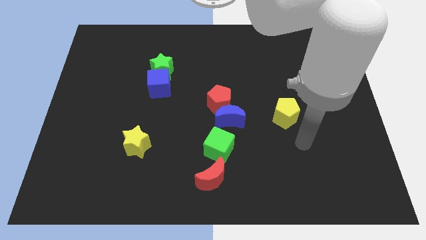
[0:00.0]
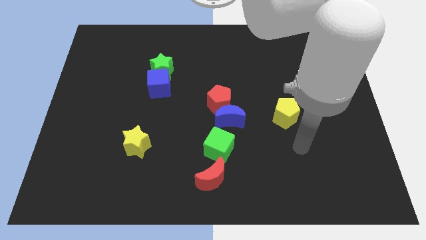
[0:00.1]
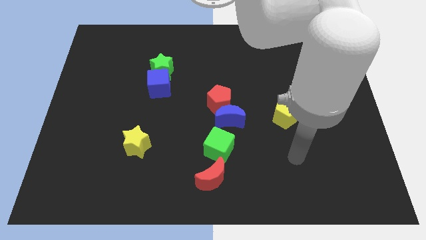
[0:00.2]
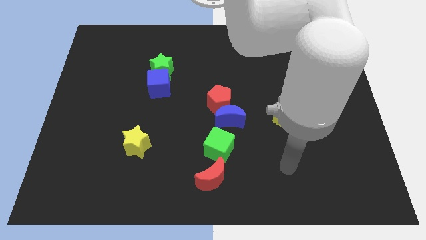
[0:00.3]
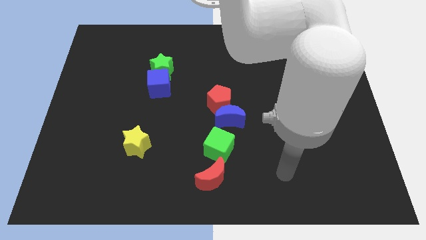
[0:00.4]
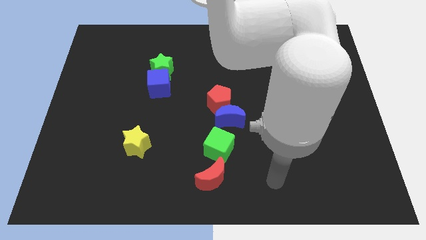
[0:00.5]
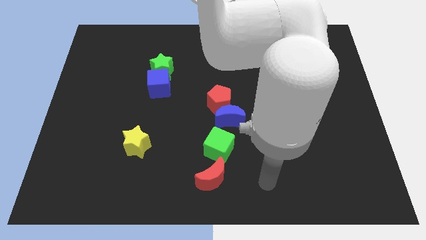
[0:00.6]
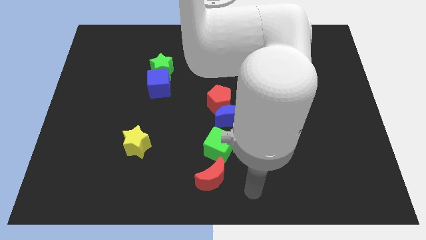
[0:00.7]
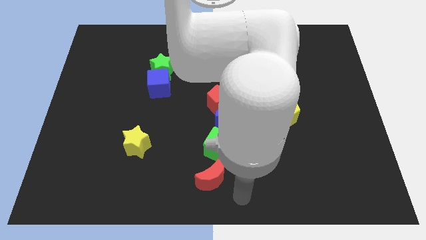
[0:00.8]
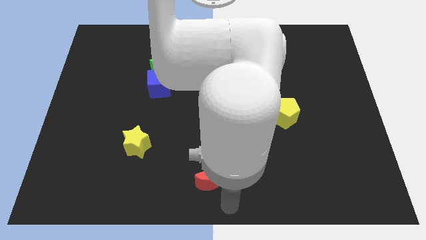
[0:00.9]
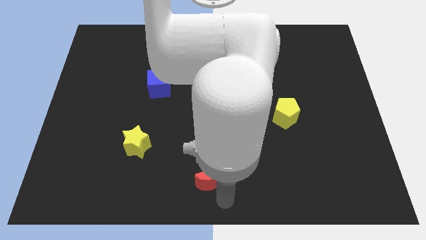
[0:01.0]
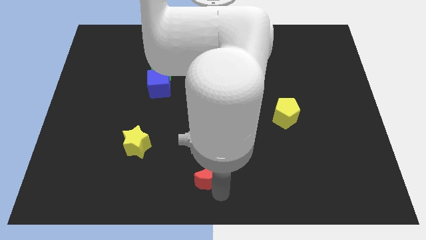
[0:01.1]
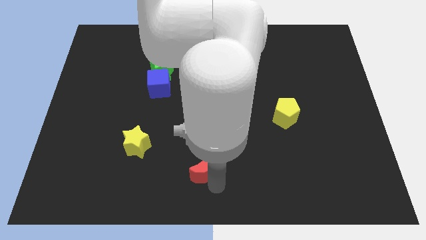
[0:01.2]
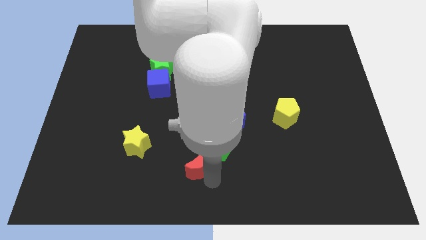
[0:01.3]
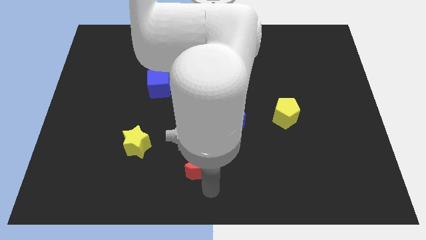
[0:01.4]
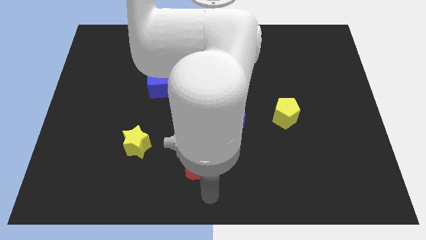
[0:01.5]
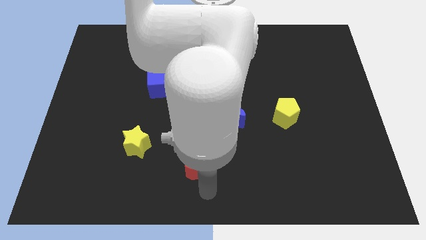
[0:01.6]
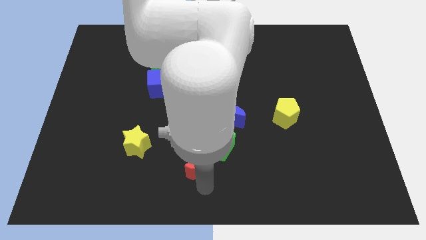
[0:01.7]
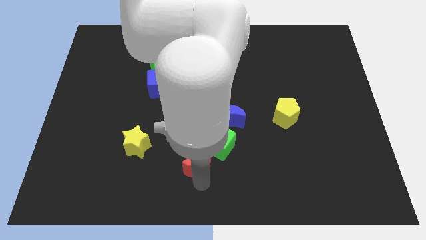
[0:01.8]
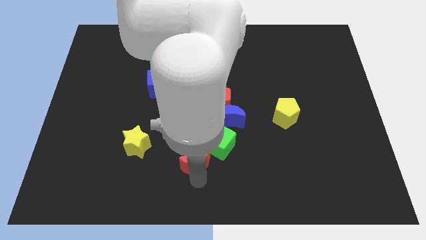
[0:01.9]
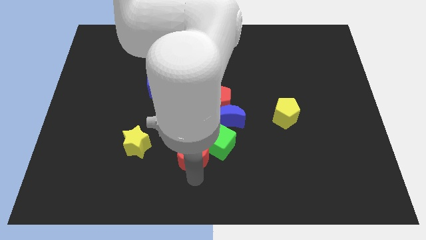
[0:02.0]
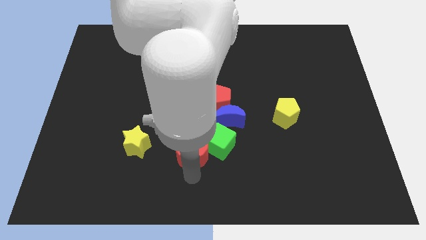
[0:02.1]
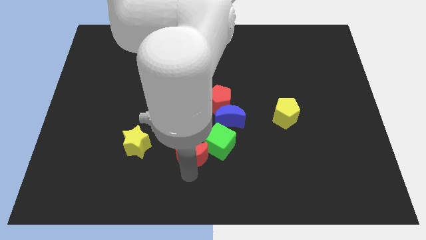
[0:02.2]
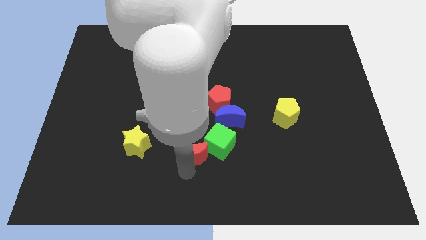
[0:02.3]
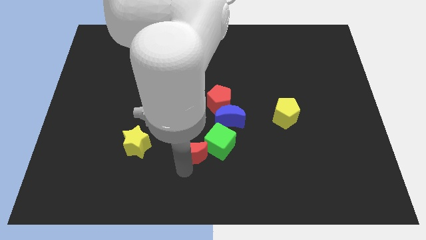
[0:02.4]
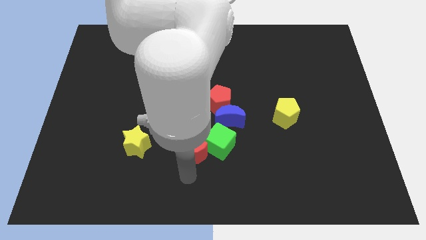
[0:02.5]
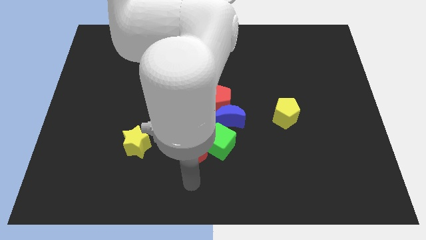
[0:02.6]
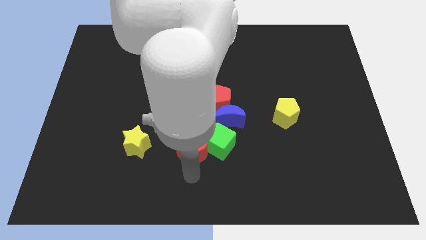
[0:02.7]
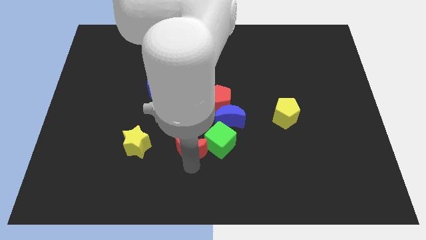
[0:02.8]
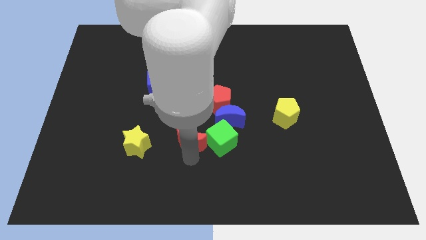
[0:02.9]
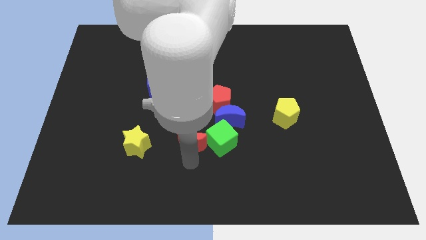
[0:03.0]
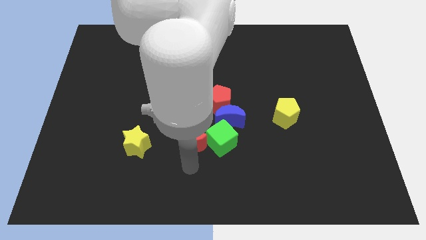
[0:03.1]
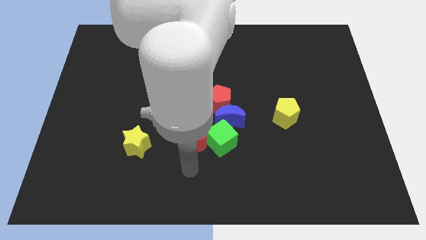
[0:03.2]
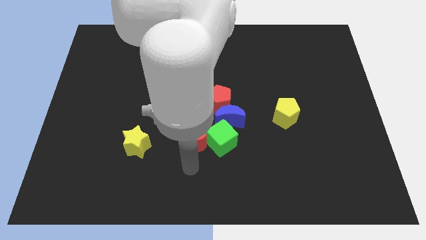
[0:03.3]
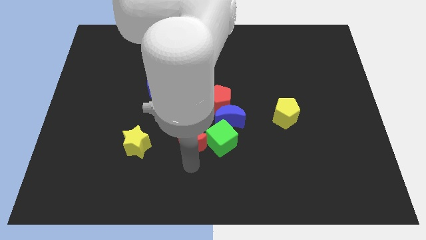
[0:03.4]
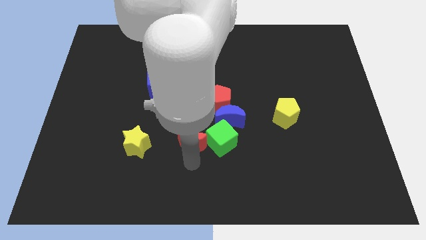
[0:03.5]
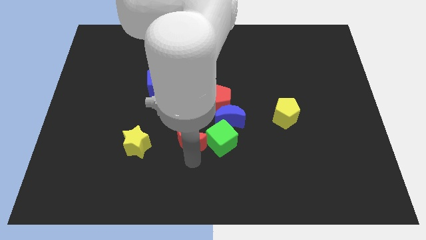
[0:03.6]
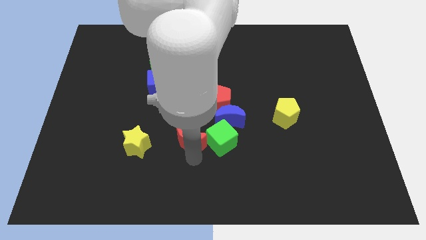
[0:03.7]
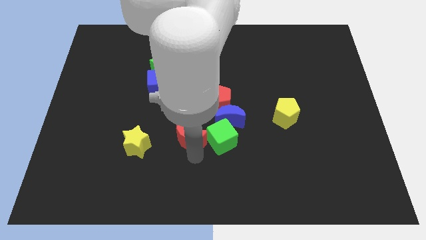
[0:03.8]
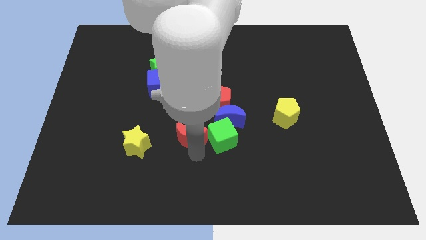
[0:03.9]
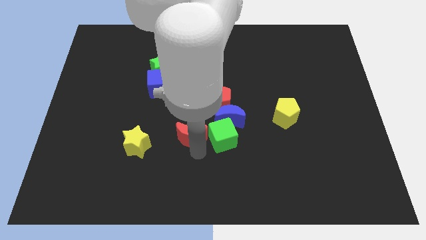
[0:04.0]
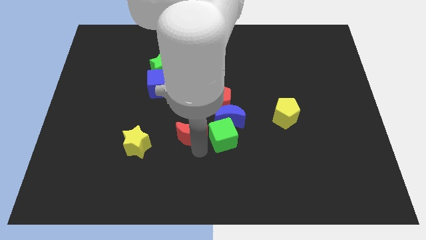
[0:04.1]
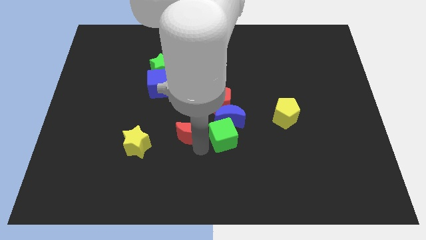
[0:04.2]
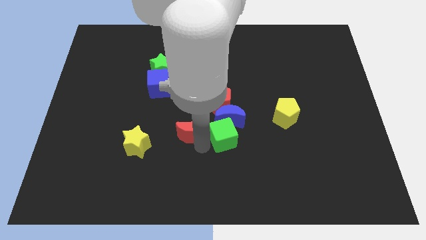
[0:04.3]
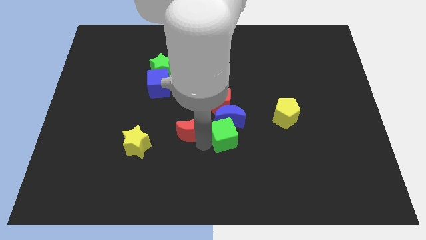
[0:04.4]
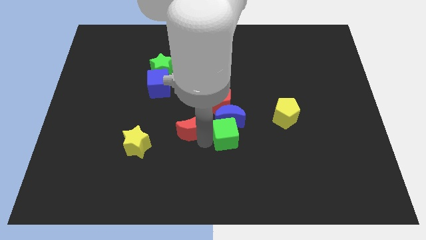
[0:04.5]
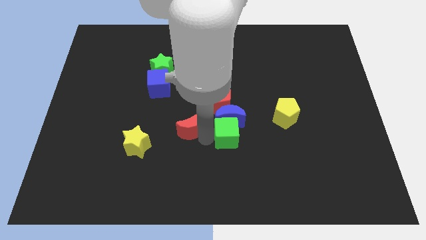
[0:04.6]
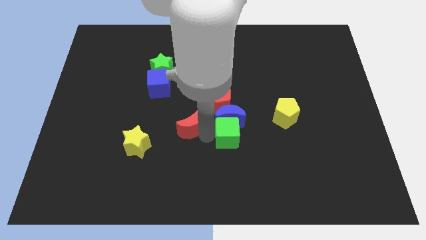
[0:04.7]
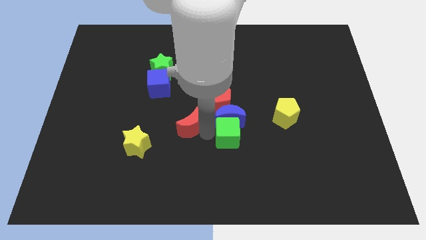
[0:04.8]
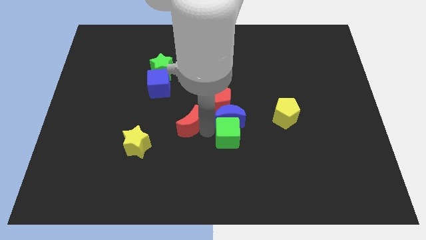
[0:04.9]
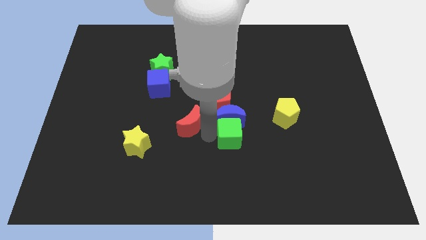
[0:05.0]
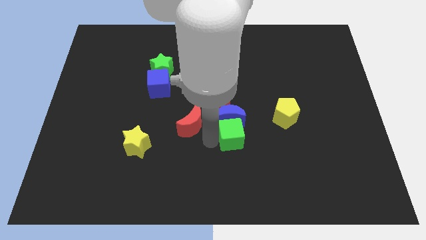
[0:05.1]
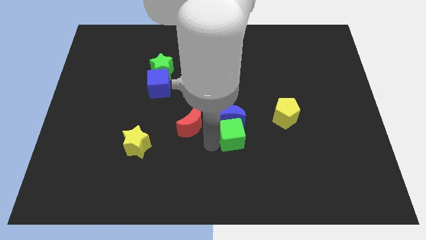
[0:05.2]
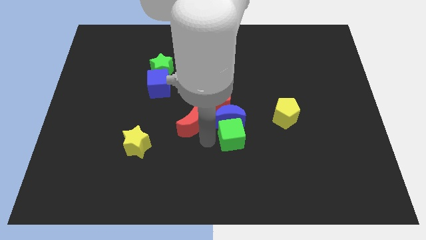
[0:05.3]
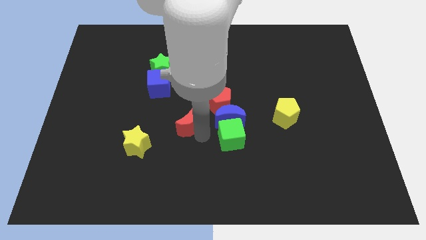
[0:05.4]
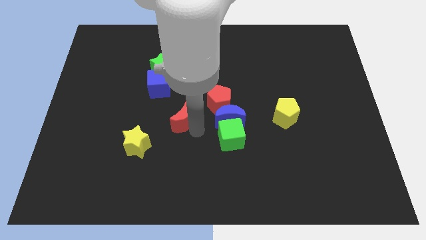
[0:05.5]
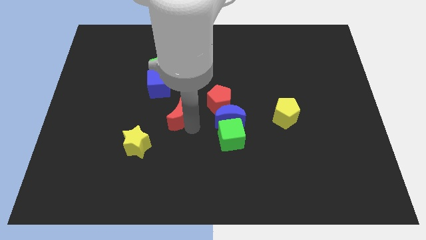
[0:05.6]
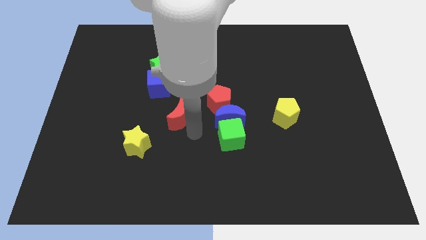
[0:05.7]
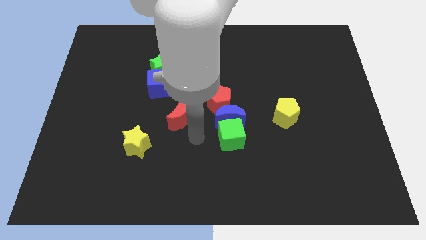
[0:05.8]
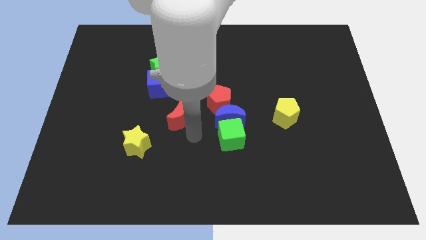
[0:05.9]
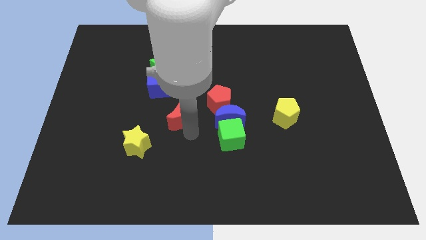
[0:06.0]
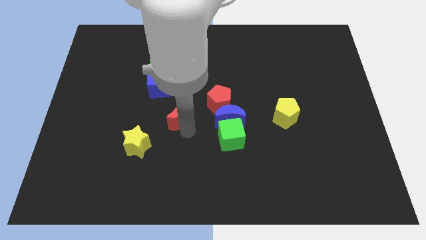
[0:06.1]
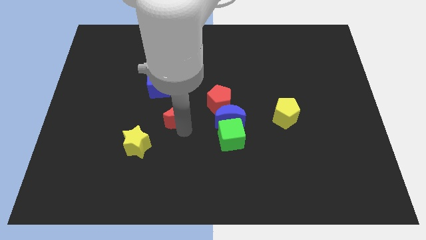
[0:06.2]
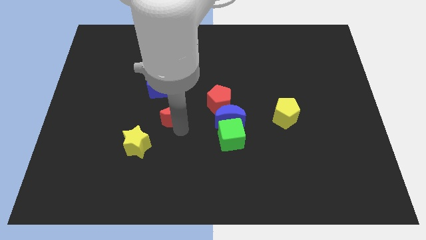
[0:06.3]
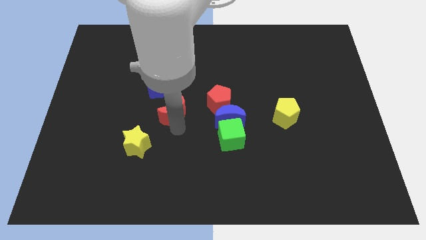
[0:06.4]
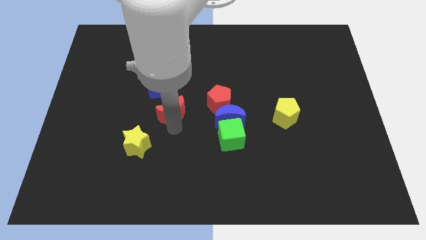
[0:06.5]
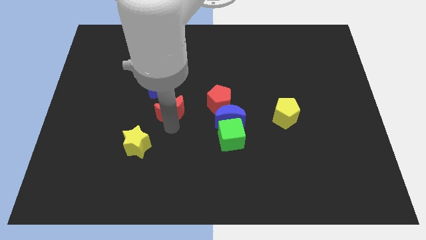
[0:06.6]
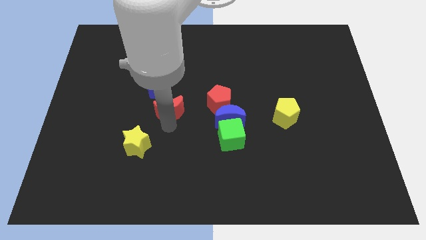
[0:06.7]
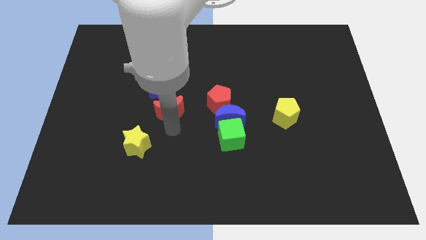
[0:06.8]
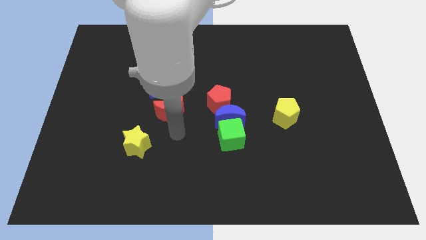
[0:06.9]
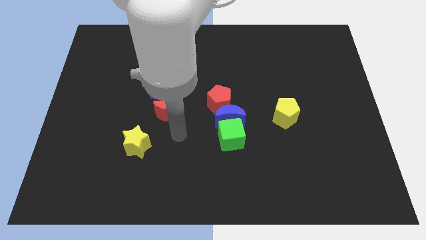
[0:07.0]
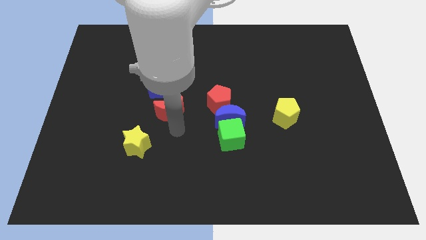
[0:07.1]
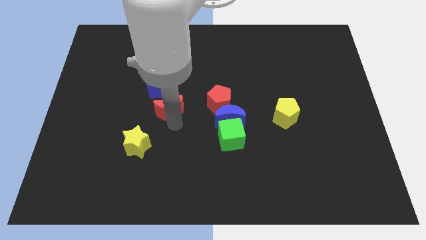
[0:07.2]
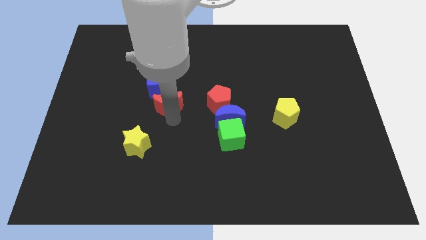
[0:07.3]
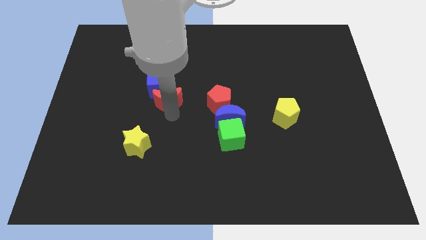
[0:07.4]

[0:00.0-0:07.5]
slide the red moon next to the blue cube

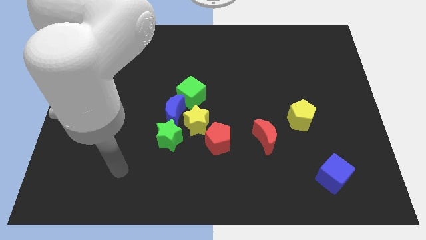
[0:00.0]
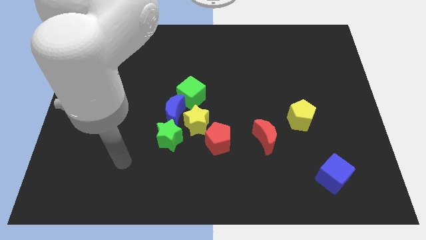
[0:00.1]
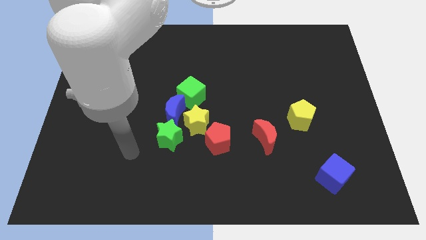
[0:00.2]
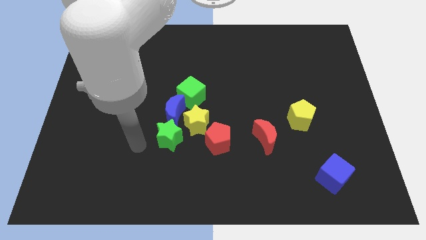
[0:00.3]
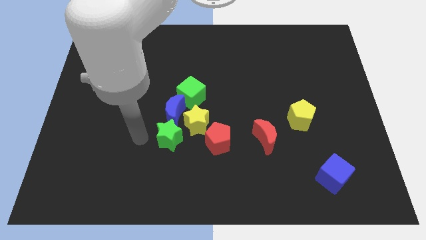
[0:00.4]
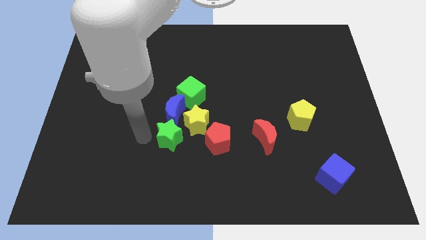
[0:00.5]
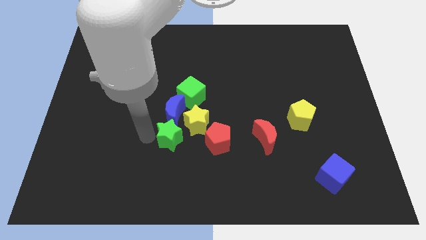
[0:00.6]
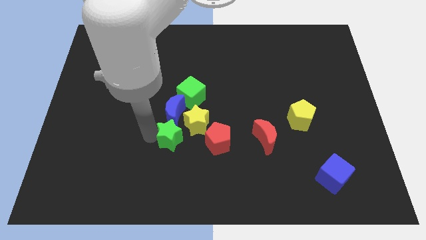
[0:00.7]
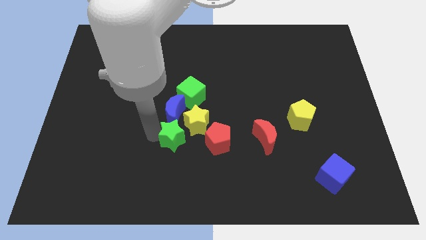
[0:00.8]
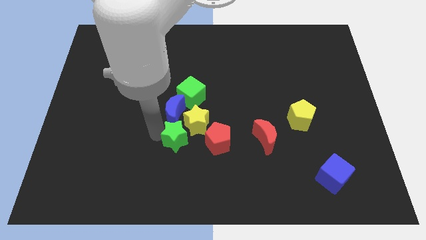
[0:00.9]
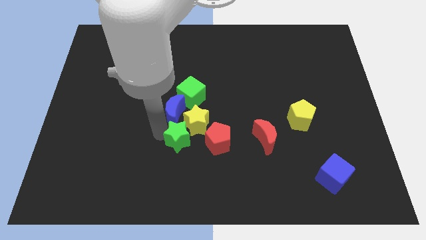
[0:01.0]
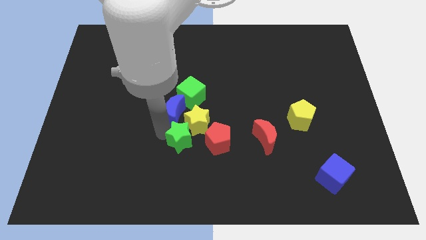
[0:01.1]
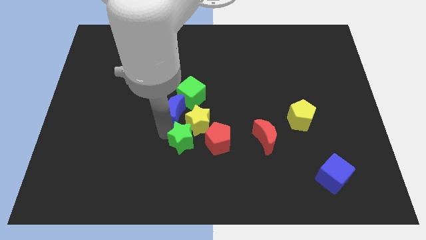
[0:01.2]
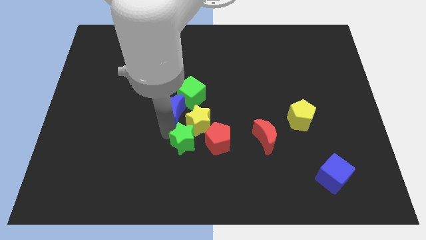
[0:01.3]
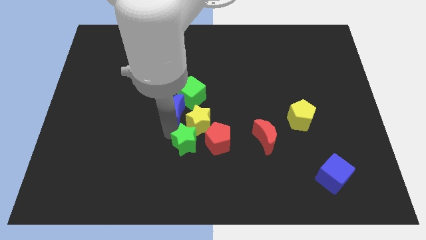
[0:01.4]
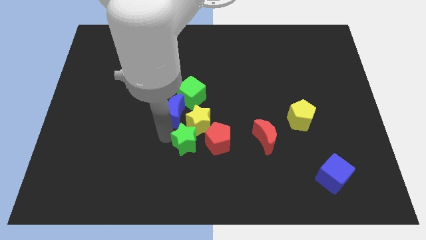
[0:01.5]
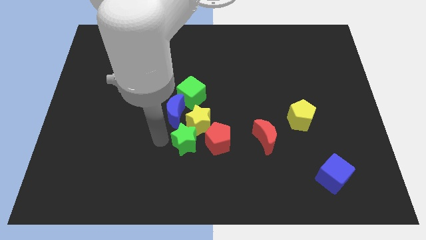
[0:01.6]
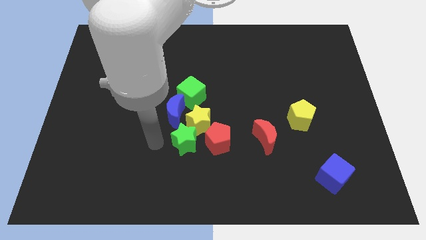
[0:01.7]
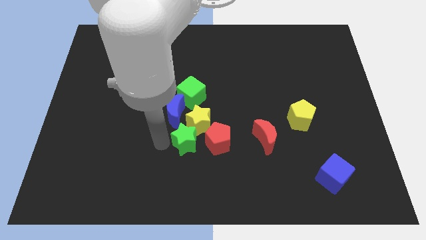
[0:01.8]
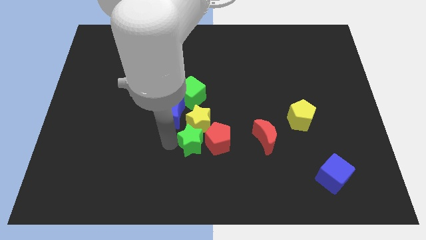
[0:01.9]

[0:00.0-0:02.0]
slide the green star close to the red pentagon
